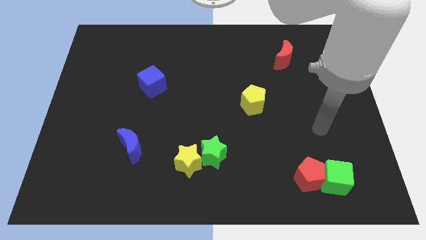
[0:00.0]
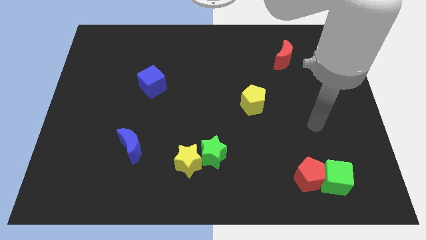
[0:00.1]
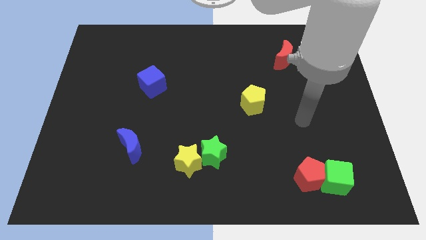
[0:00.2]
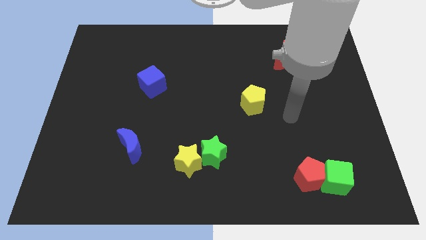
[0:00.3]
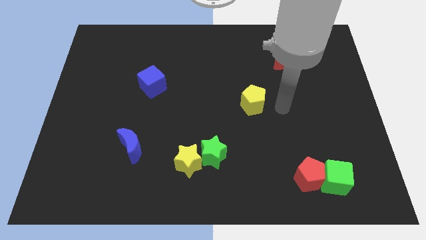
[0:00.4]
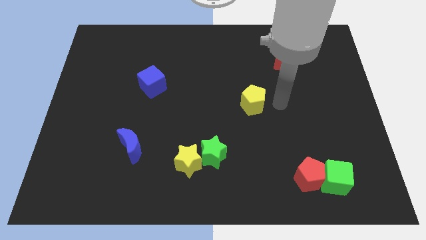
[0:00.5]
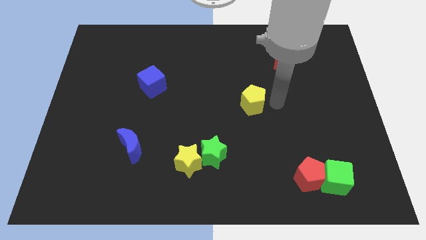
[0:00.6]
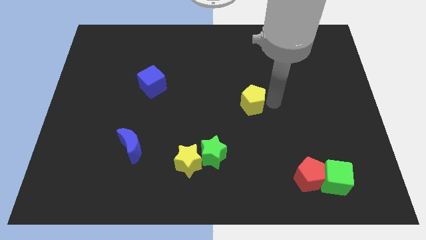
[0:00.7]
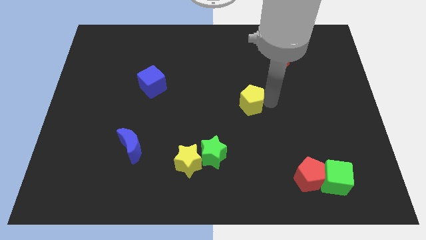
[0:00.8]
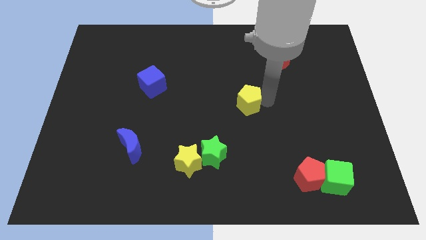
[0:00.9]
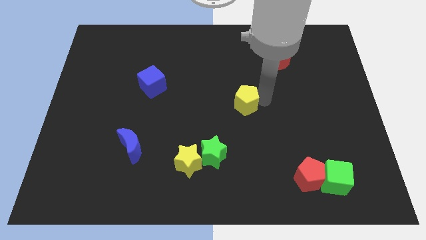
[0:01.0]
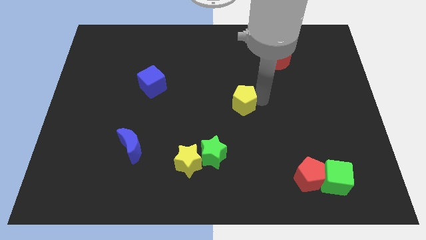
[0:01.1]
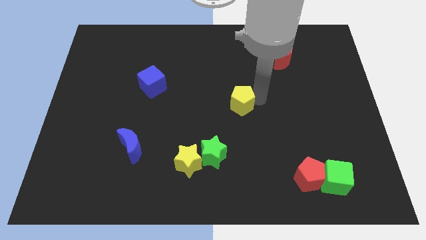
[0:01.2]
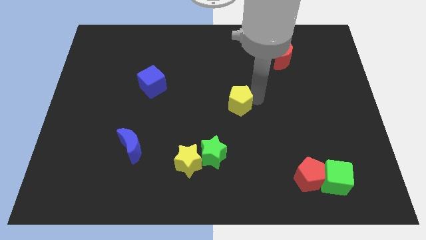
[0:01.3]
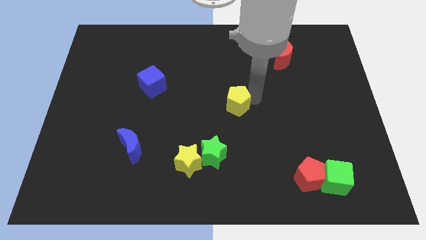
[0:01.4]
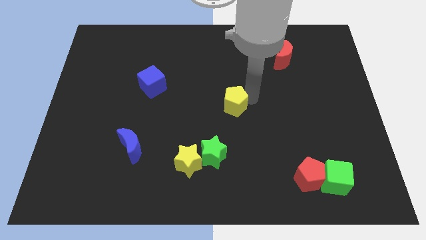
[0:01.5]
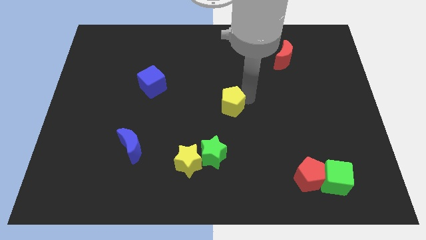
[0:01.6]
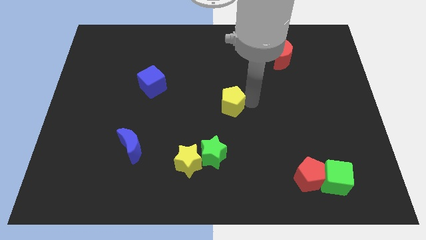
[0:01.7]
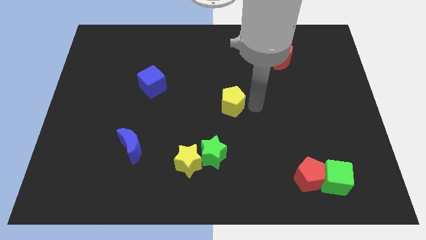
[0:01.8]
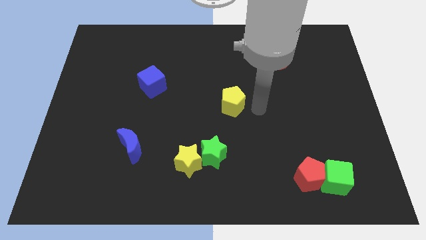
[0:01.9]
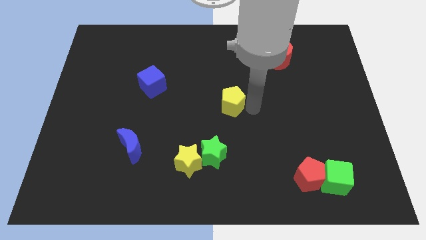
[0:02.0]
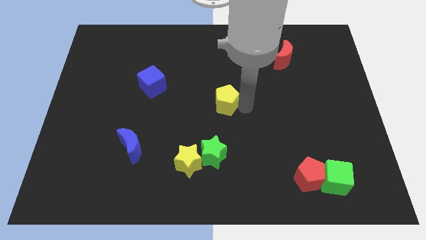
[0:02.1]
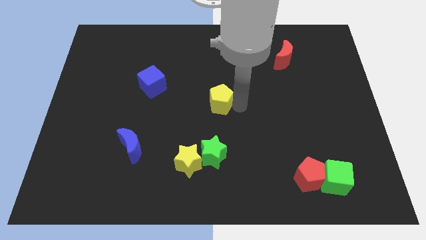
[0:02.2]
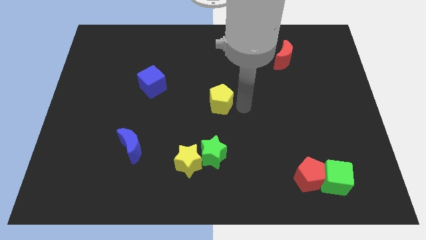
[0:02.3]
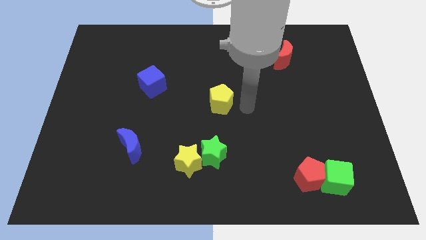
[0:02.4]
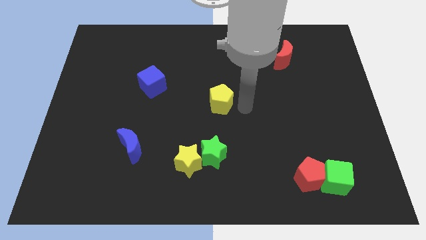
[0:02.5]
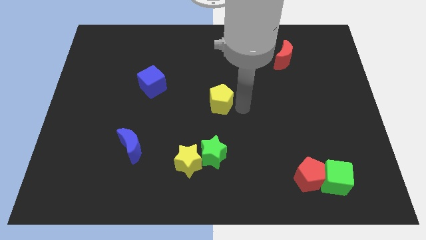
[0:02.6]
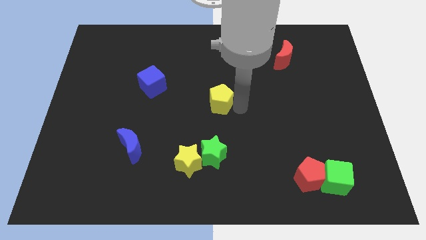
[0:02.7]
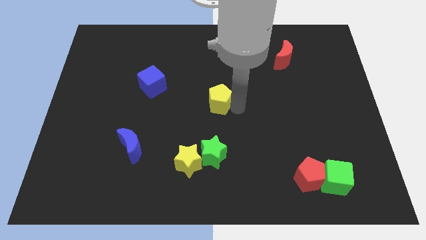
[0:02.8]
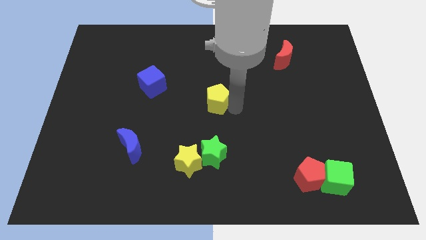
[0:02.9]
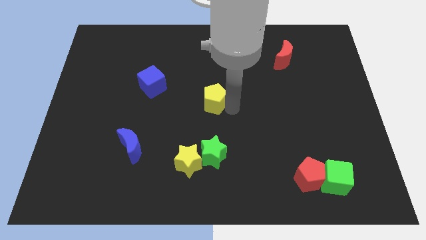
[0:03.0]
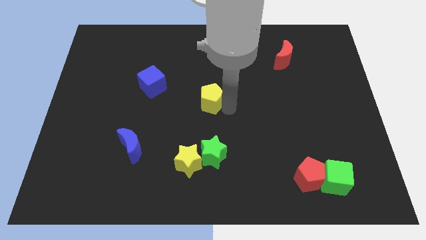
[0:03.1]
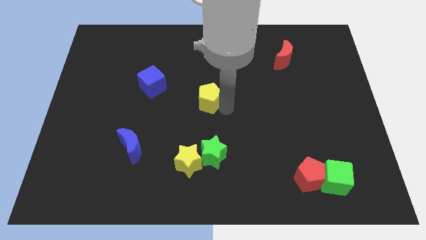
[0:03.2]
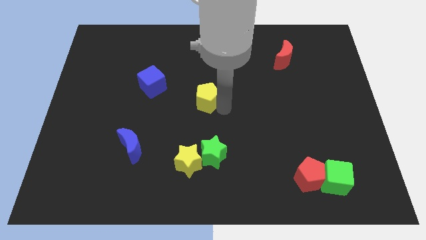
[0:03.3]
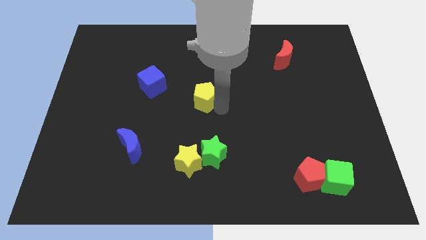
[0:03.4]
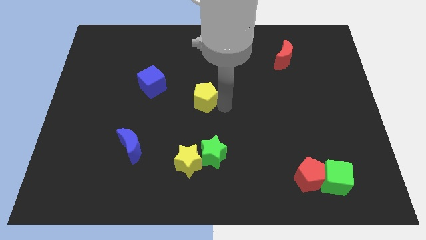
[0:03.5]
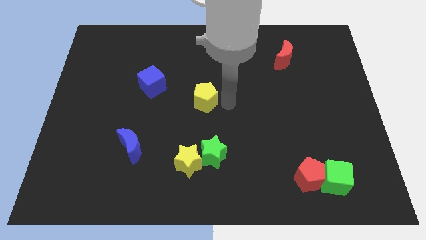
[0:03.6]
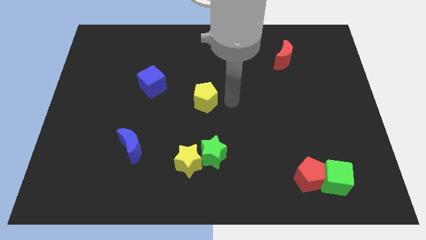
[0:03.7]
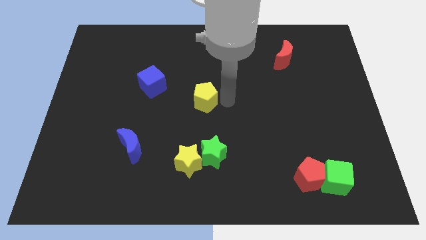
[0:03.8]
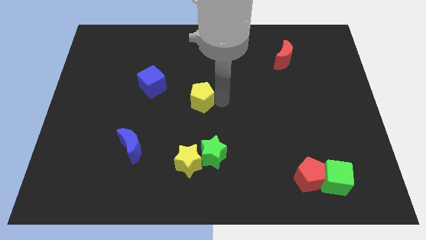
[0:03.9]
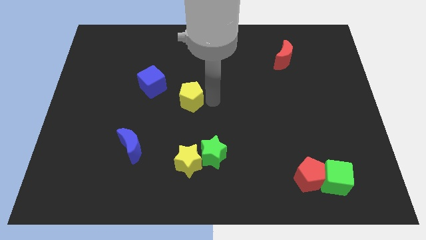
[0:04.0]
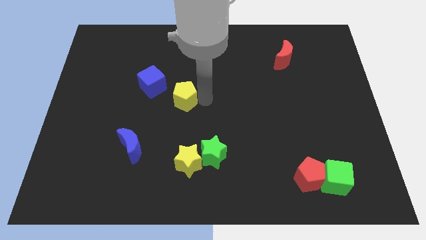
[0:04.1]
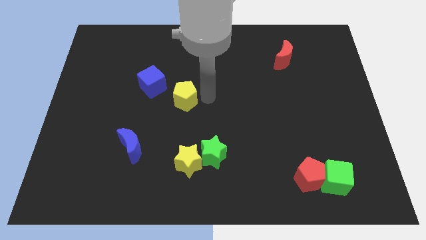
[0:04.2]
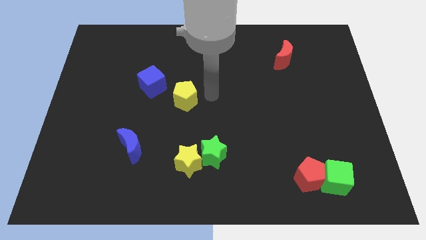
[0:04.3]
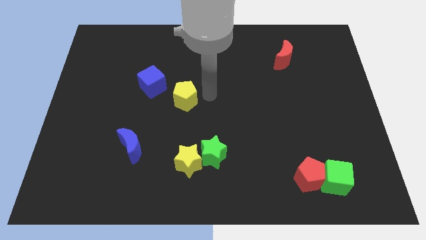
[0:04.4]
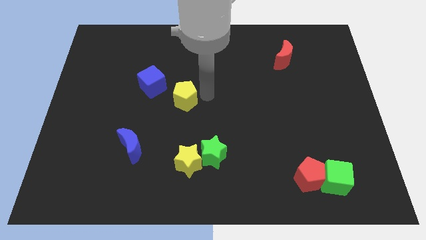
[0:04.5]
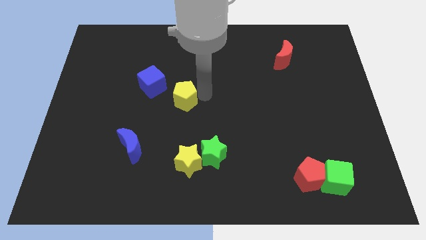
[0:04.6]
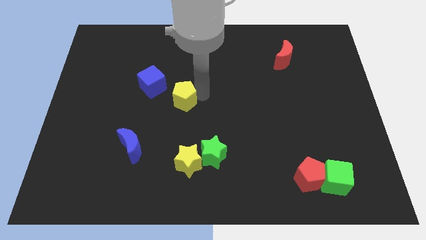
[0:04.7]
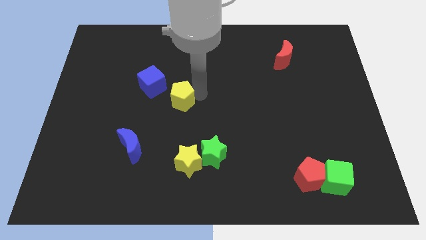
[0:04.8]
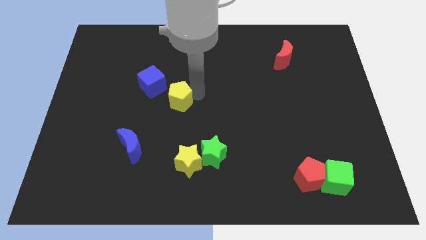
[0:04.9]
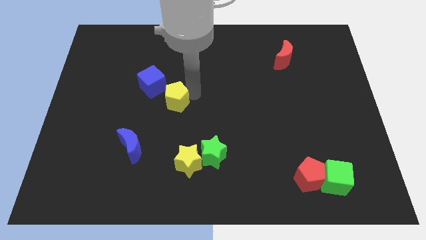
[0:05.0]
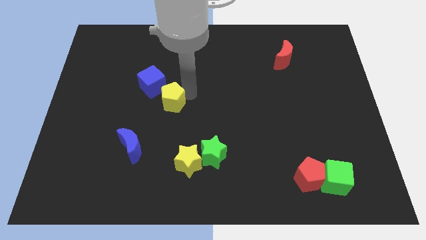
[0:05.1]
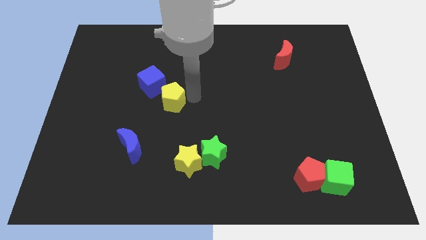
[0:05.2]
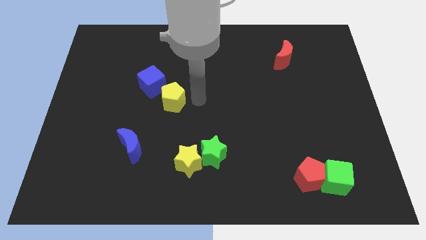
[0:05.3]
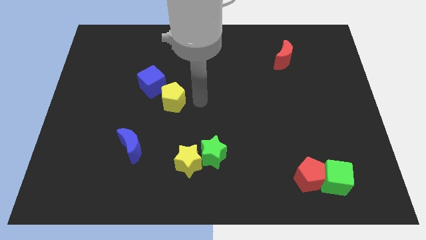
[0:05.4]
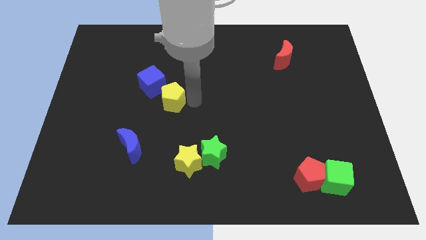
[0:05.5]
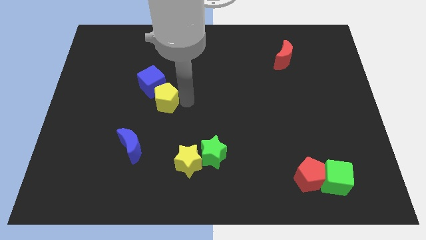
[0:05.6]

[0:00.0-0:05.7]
move the yellow pentagon left

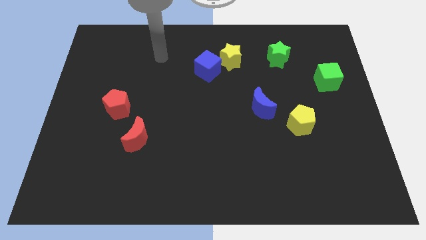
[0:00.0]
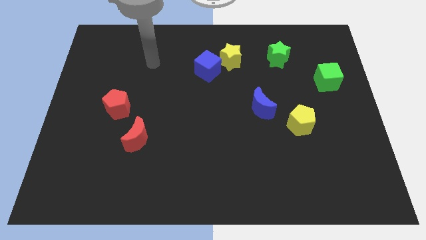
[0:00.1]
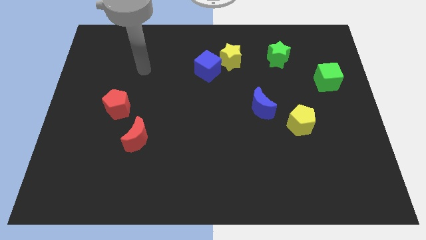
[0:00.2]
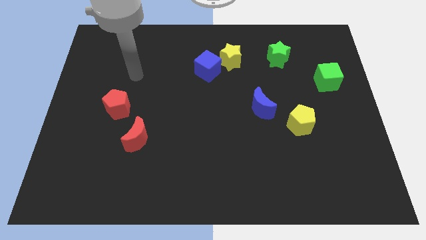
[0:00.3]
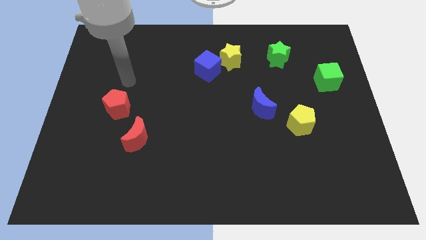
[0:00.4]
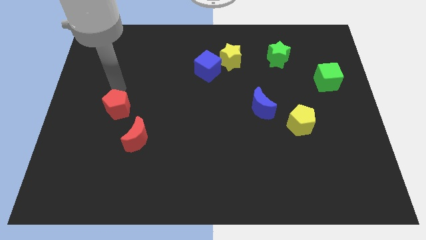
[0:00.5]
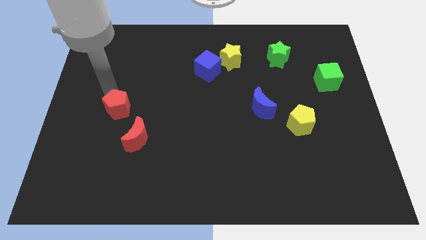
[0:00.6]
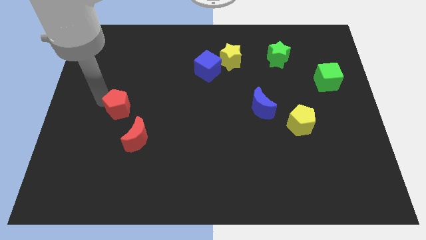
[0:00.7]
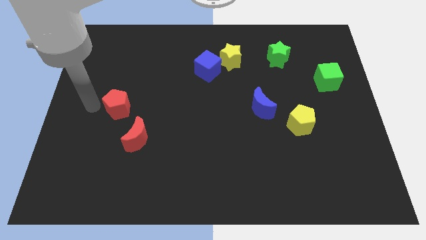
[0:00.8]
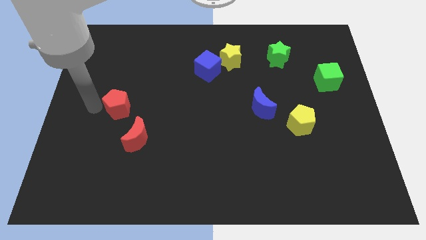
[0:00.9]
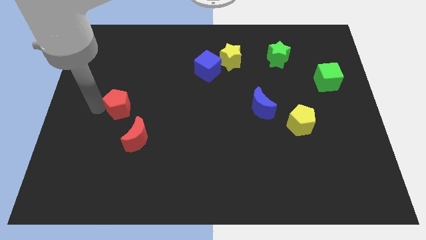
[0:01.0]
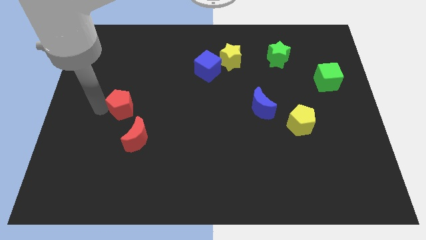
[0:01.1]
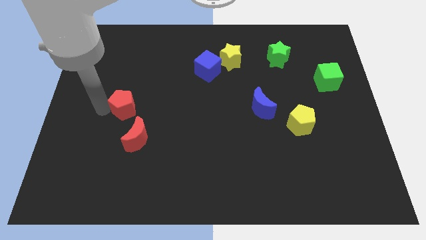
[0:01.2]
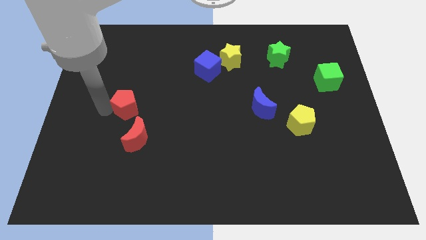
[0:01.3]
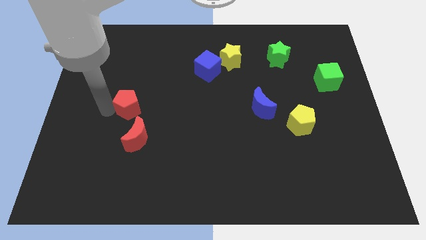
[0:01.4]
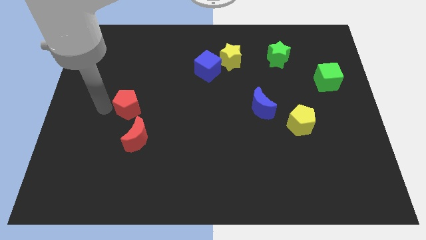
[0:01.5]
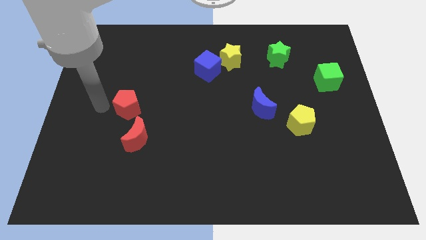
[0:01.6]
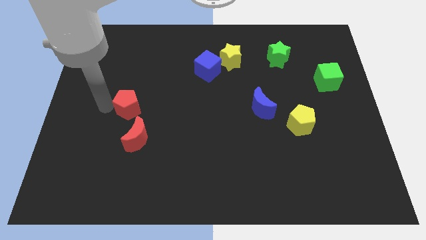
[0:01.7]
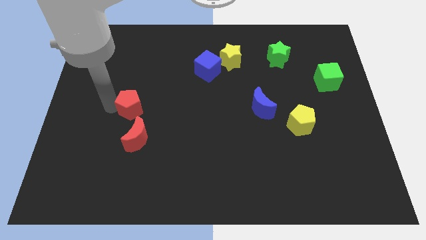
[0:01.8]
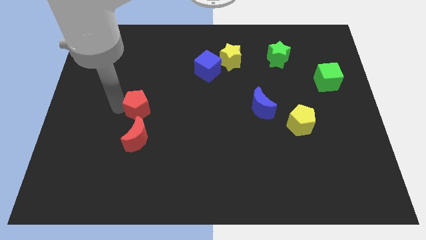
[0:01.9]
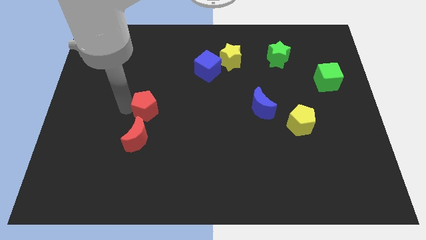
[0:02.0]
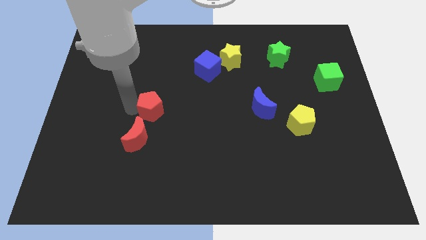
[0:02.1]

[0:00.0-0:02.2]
move the red pentagon right slightly
